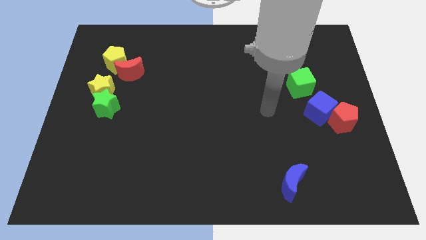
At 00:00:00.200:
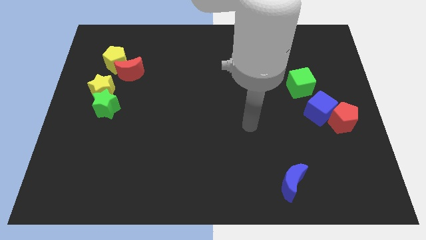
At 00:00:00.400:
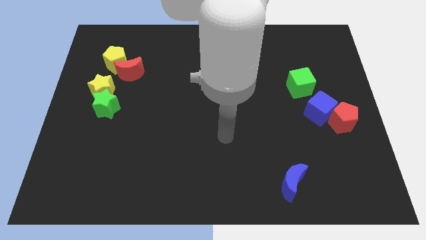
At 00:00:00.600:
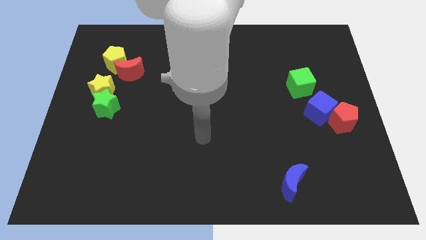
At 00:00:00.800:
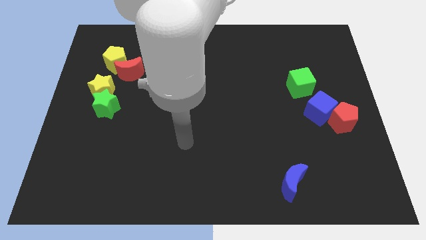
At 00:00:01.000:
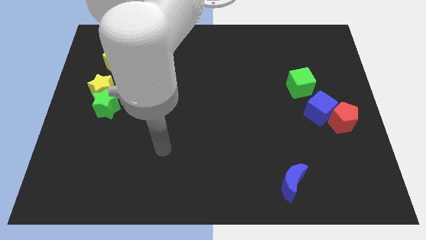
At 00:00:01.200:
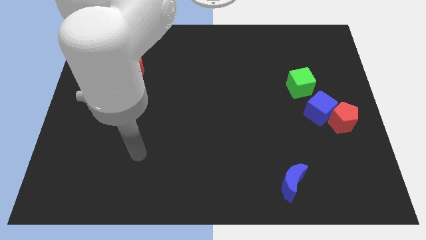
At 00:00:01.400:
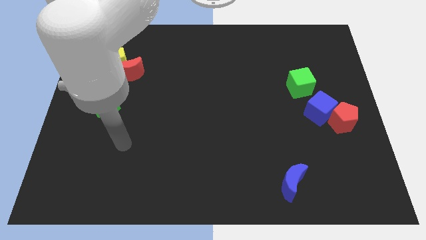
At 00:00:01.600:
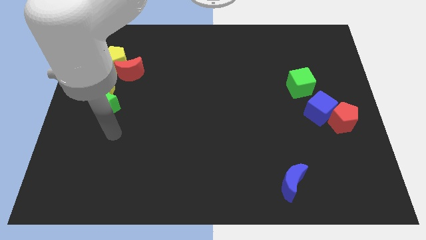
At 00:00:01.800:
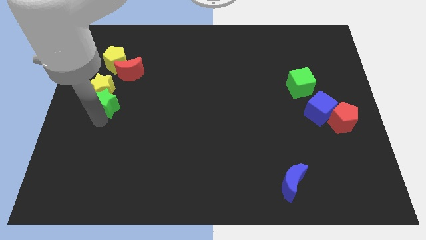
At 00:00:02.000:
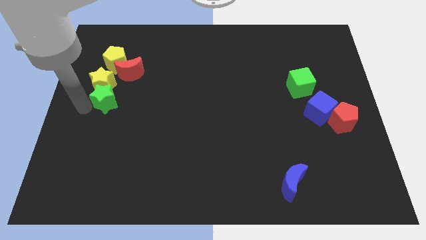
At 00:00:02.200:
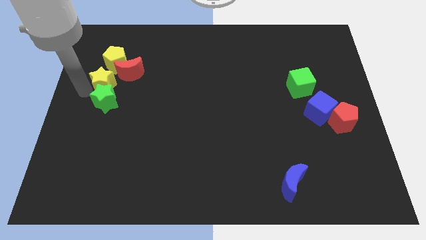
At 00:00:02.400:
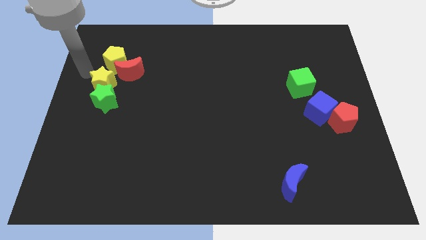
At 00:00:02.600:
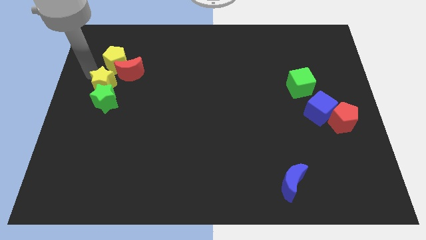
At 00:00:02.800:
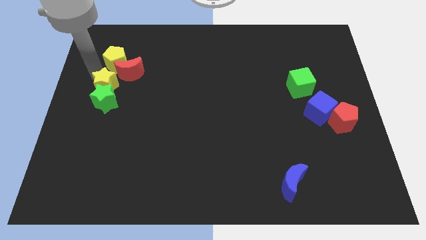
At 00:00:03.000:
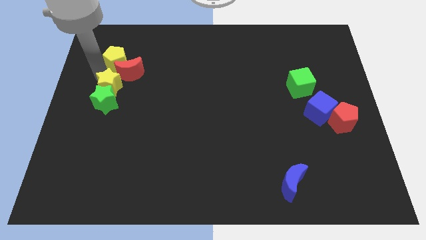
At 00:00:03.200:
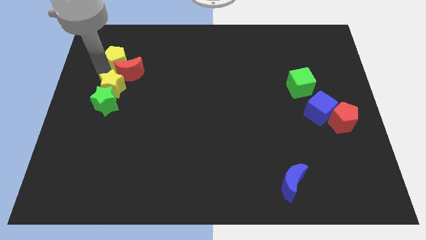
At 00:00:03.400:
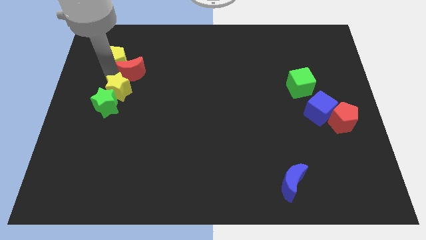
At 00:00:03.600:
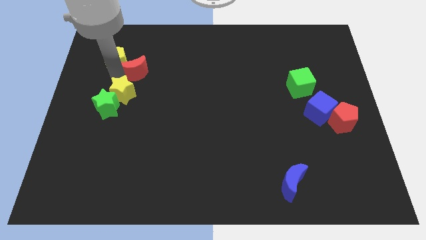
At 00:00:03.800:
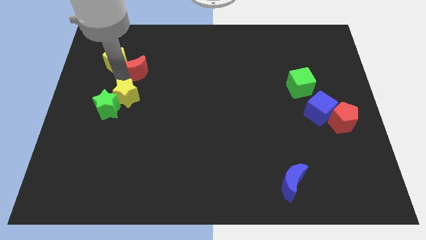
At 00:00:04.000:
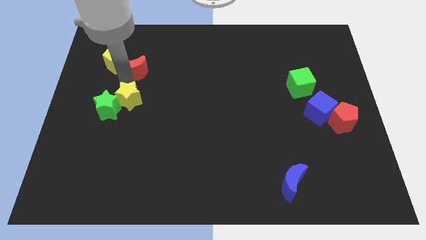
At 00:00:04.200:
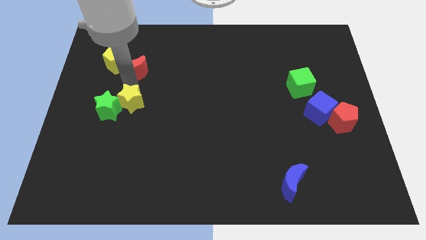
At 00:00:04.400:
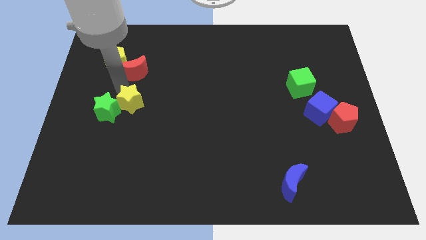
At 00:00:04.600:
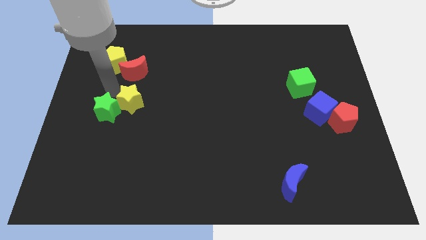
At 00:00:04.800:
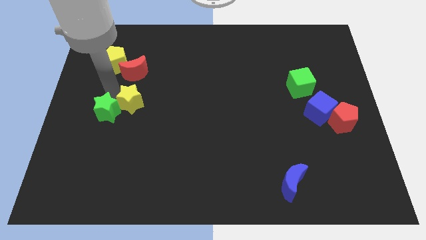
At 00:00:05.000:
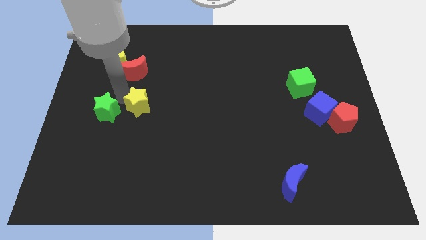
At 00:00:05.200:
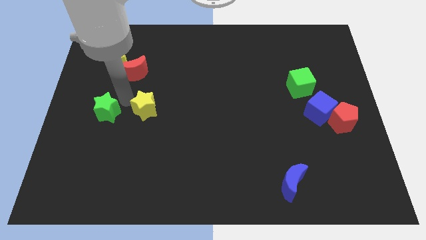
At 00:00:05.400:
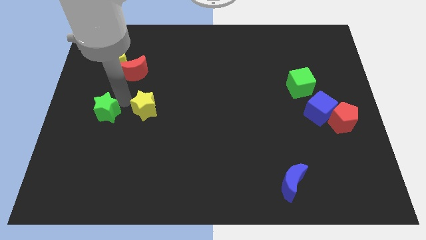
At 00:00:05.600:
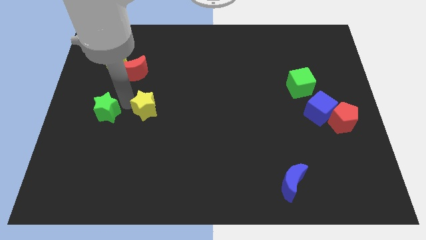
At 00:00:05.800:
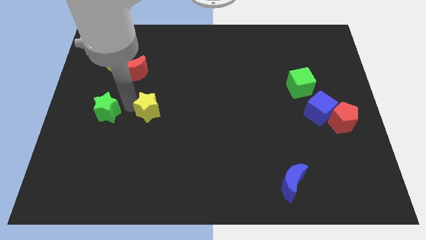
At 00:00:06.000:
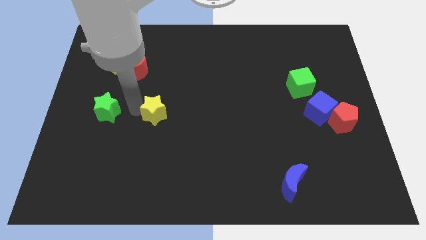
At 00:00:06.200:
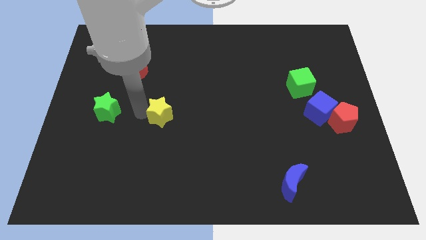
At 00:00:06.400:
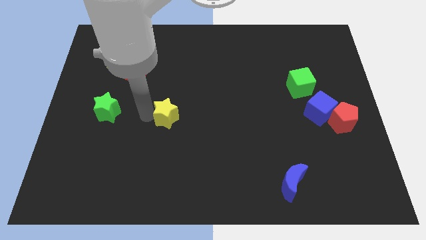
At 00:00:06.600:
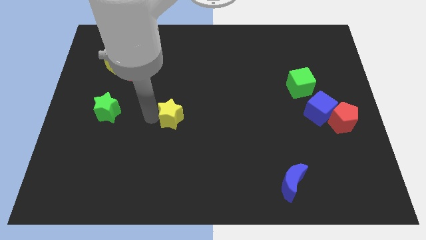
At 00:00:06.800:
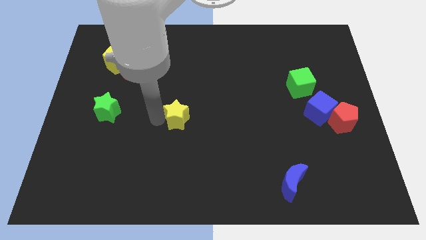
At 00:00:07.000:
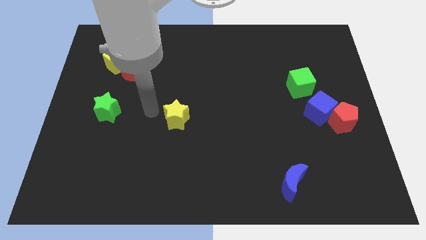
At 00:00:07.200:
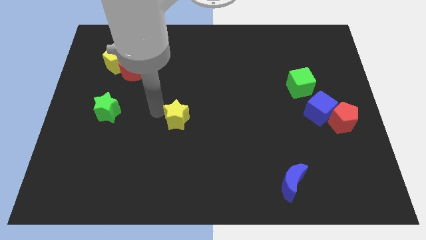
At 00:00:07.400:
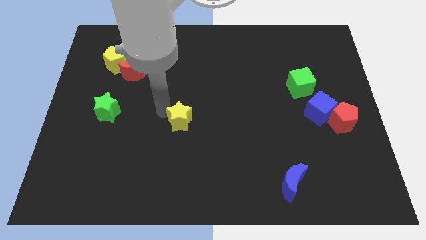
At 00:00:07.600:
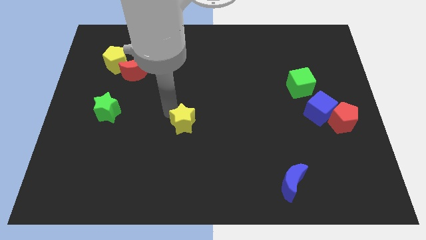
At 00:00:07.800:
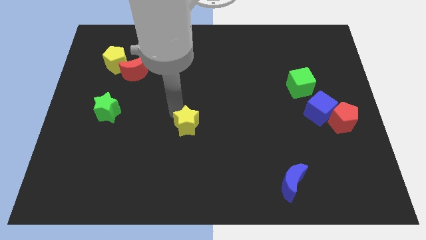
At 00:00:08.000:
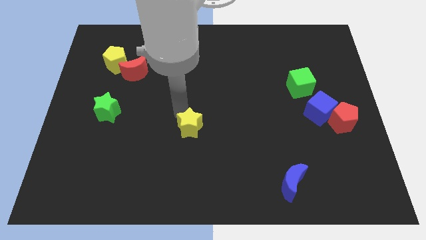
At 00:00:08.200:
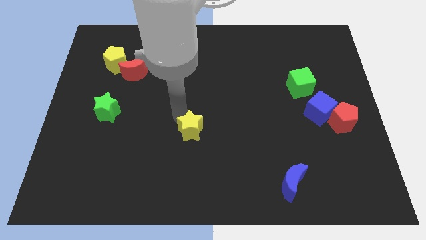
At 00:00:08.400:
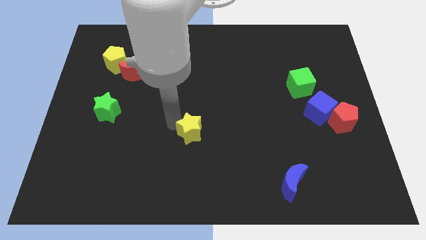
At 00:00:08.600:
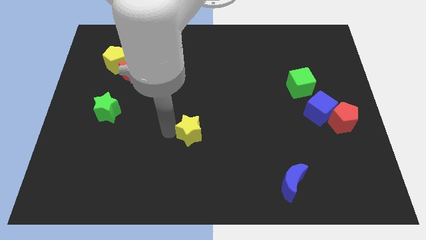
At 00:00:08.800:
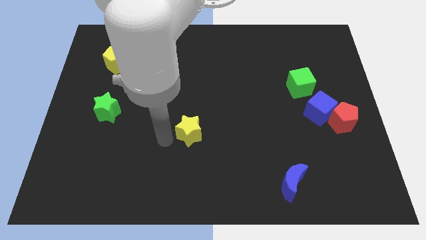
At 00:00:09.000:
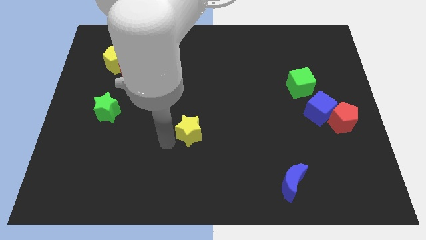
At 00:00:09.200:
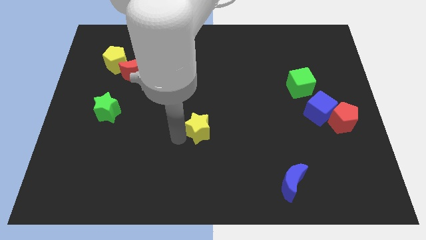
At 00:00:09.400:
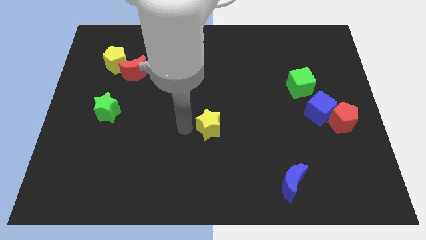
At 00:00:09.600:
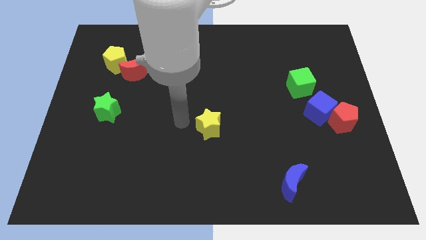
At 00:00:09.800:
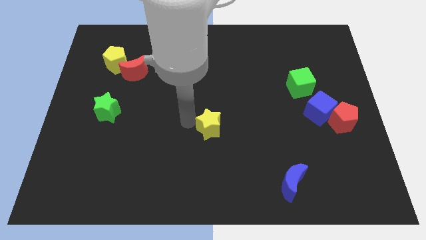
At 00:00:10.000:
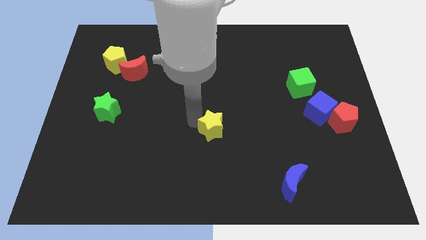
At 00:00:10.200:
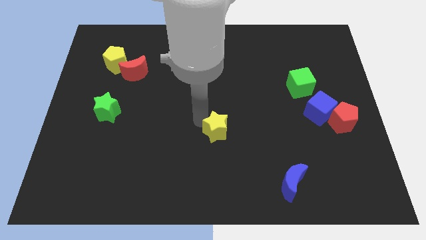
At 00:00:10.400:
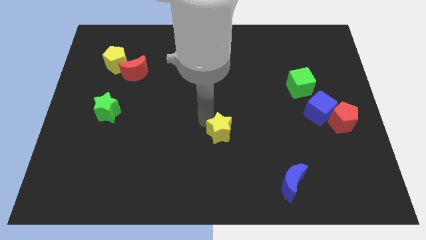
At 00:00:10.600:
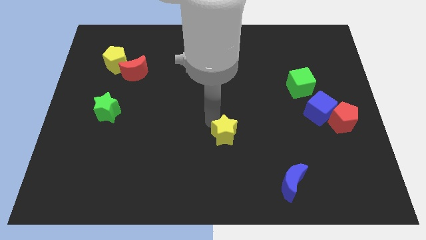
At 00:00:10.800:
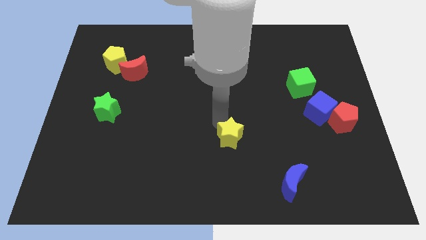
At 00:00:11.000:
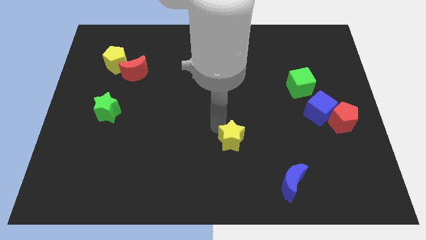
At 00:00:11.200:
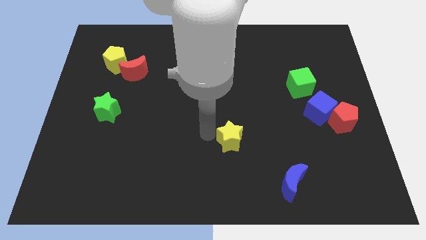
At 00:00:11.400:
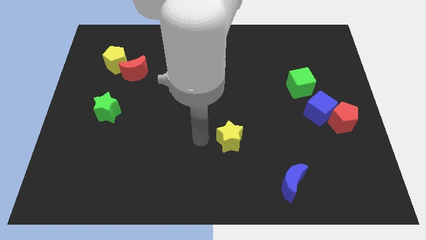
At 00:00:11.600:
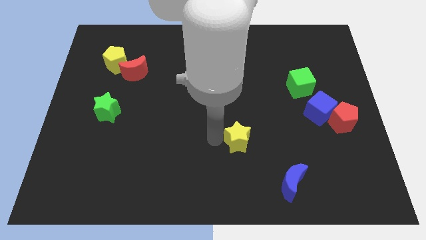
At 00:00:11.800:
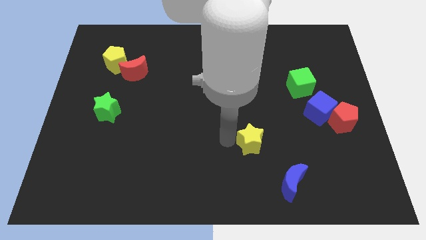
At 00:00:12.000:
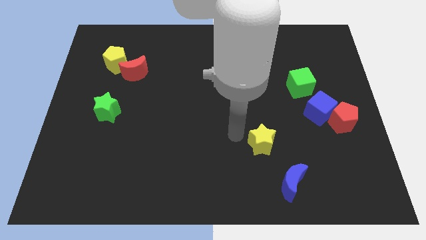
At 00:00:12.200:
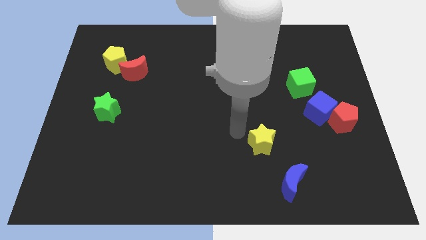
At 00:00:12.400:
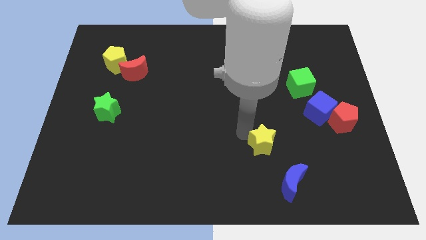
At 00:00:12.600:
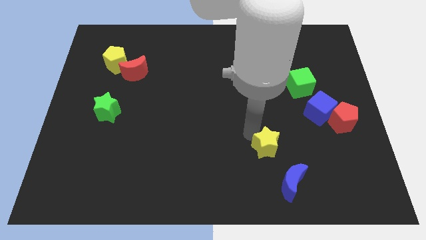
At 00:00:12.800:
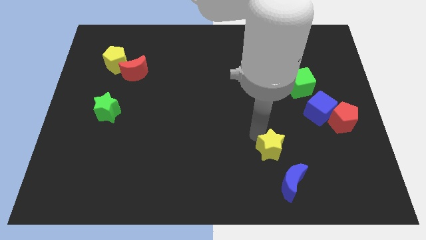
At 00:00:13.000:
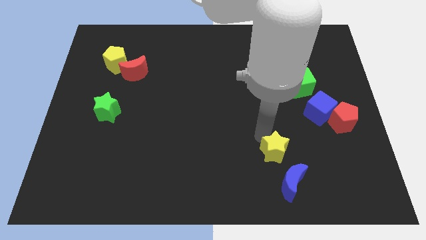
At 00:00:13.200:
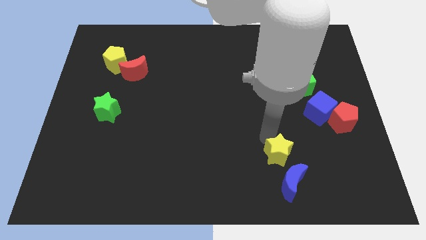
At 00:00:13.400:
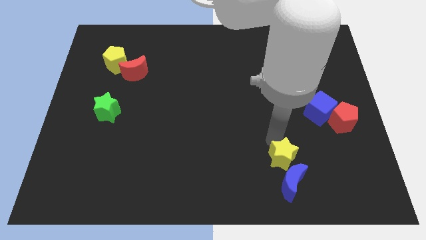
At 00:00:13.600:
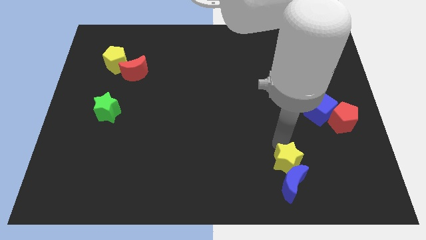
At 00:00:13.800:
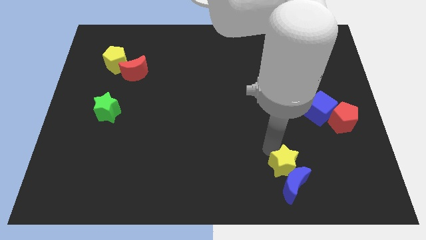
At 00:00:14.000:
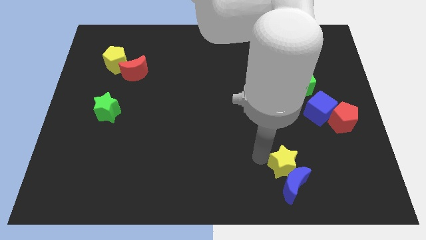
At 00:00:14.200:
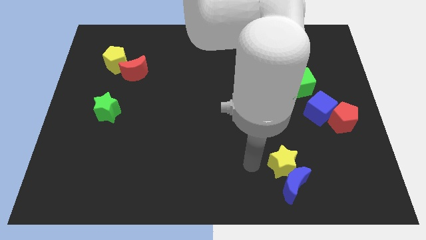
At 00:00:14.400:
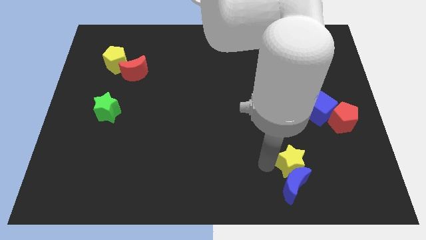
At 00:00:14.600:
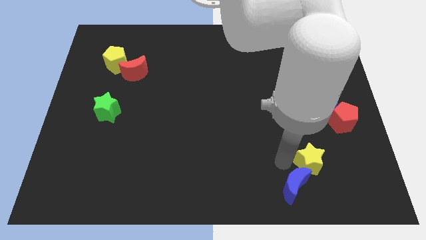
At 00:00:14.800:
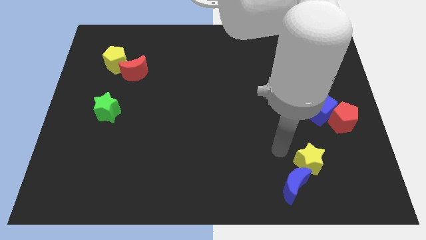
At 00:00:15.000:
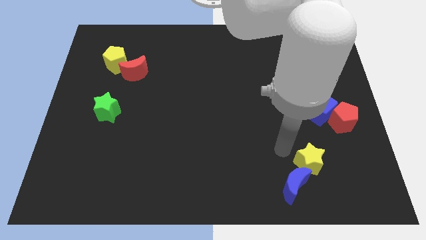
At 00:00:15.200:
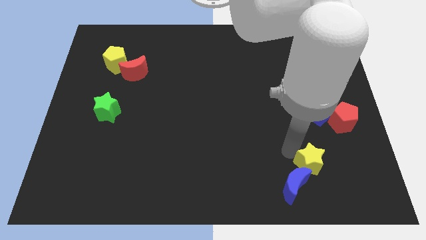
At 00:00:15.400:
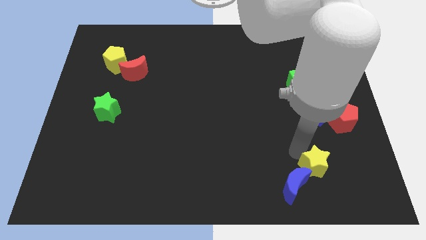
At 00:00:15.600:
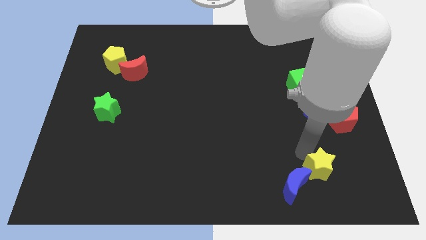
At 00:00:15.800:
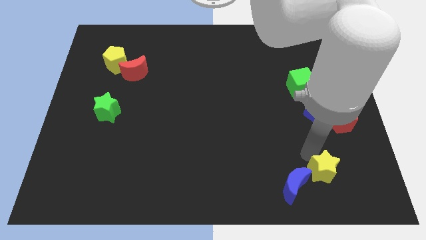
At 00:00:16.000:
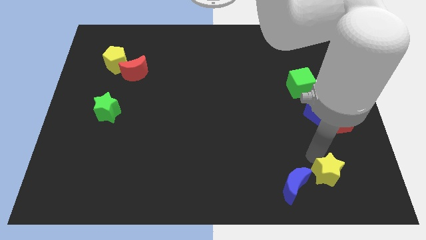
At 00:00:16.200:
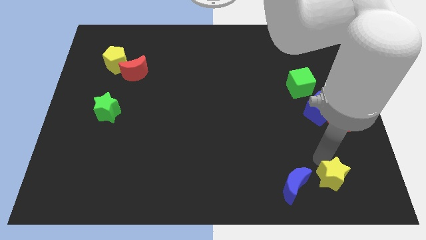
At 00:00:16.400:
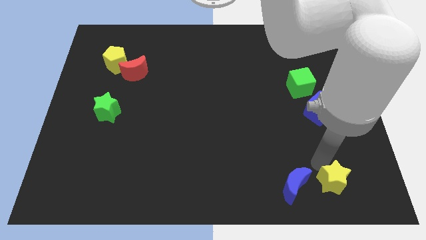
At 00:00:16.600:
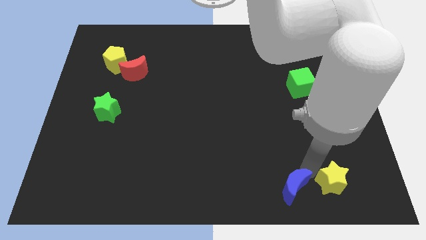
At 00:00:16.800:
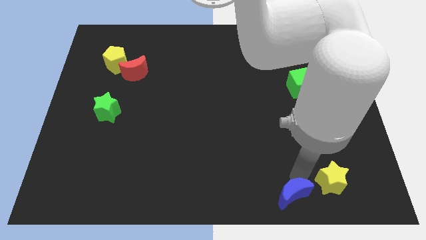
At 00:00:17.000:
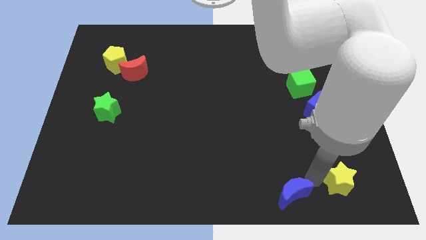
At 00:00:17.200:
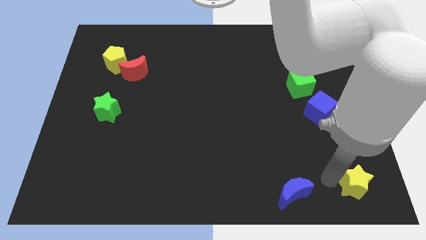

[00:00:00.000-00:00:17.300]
slide the yellow star to the bottom right of the board
